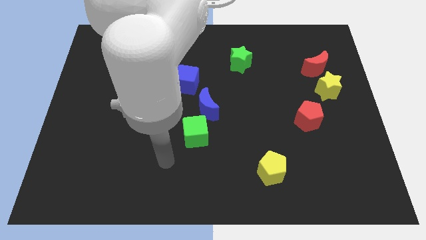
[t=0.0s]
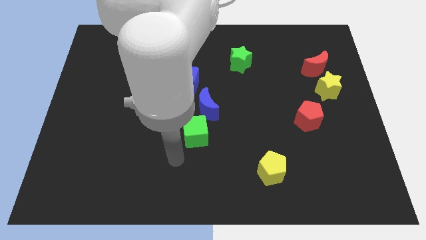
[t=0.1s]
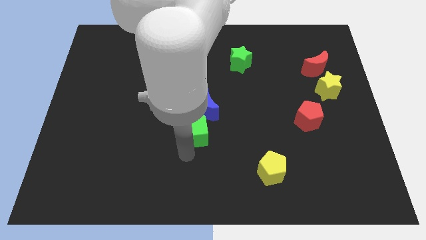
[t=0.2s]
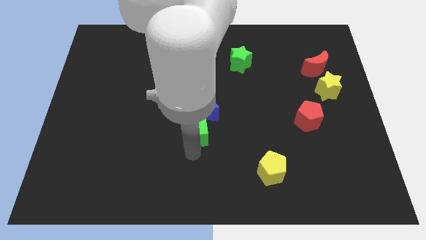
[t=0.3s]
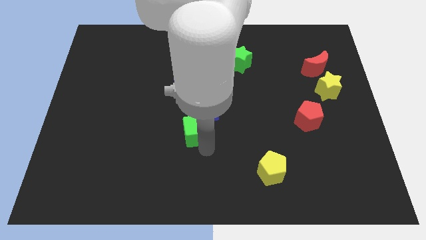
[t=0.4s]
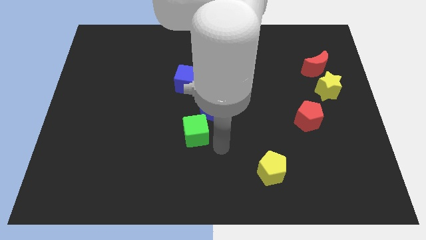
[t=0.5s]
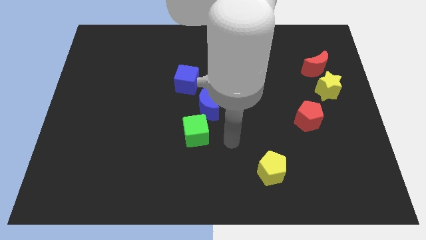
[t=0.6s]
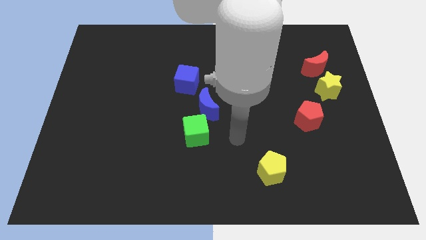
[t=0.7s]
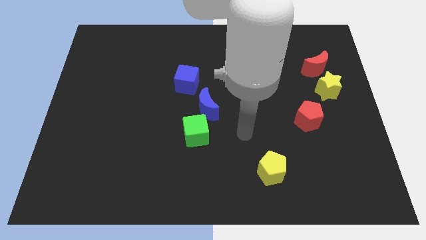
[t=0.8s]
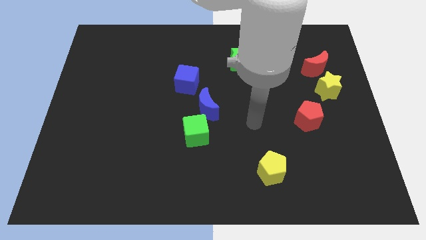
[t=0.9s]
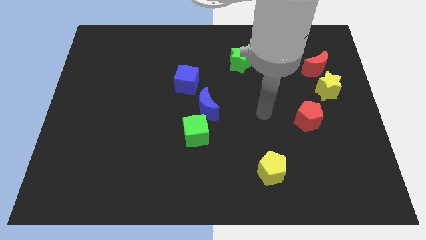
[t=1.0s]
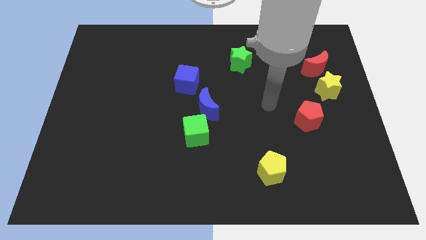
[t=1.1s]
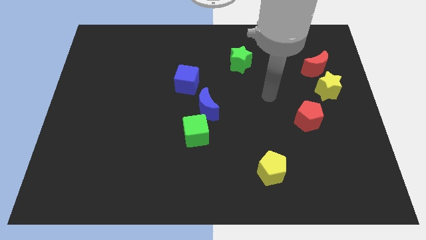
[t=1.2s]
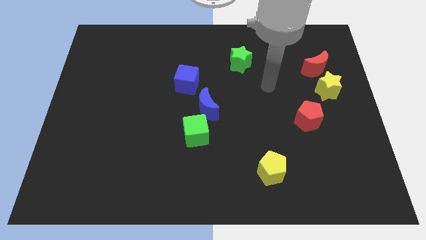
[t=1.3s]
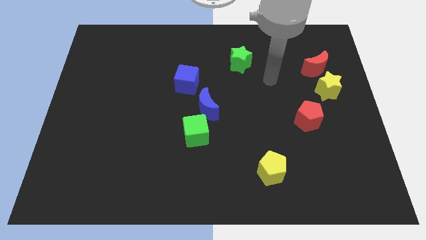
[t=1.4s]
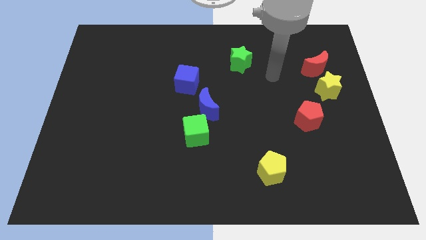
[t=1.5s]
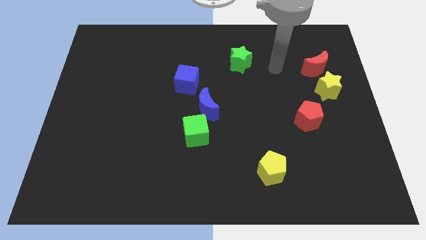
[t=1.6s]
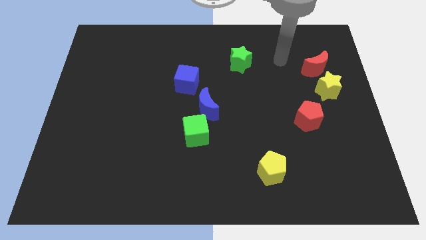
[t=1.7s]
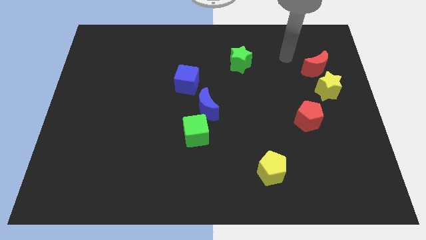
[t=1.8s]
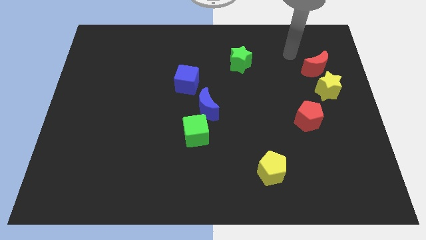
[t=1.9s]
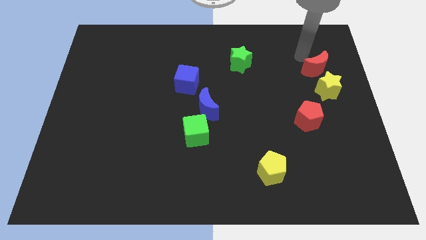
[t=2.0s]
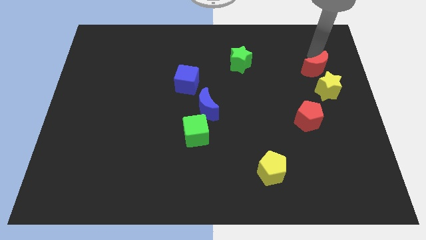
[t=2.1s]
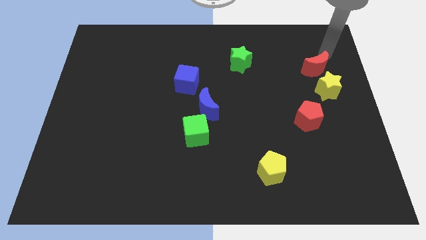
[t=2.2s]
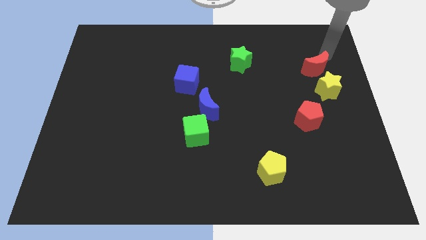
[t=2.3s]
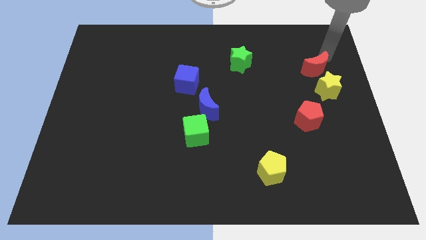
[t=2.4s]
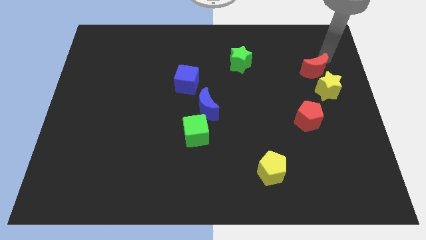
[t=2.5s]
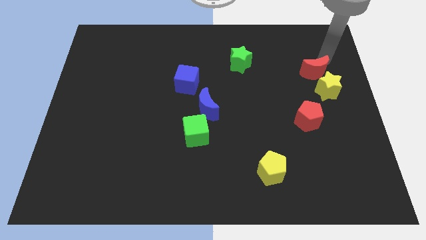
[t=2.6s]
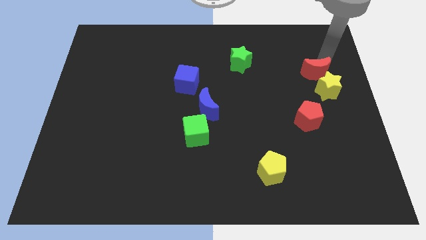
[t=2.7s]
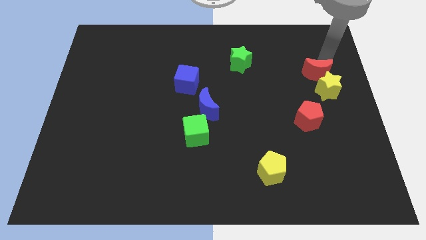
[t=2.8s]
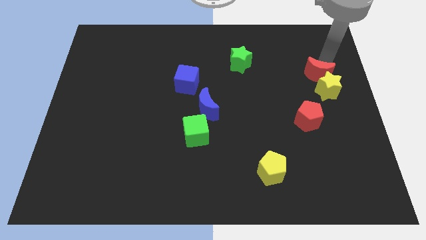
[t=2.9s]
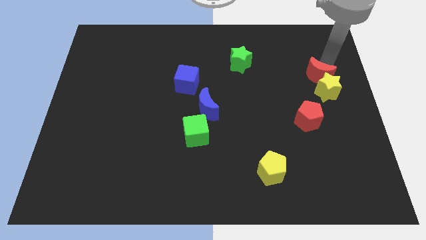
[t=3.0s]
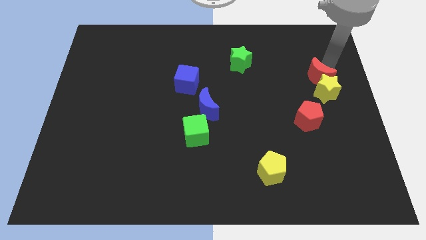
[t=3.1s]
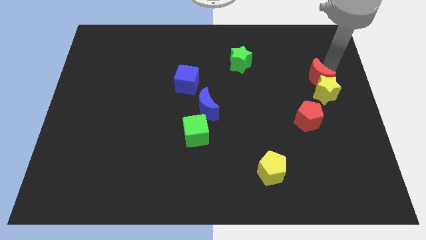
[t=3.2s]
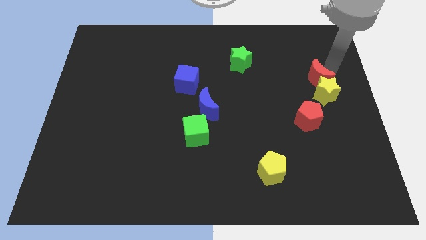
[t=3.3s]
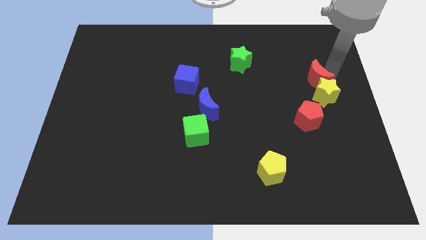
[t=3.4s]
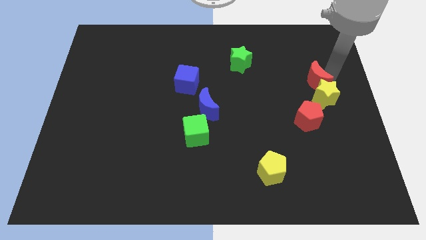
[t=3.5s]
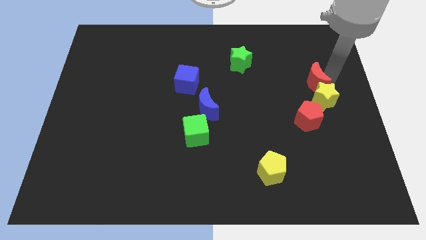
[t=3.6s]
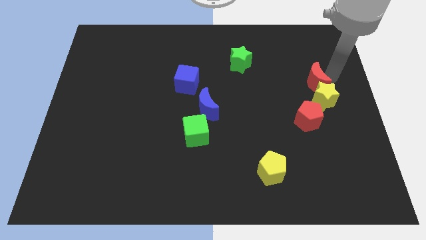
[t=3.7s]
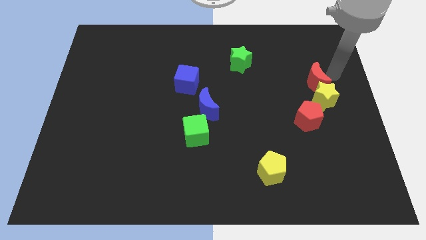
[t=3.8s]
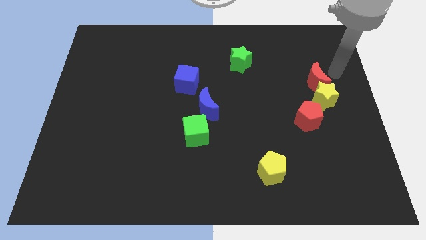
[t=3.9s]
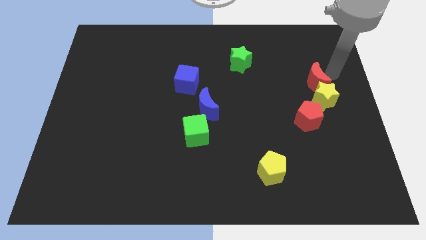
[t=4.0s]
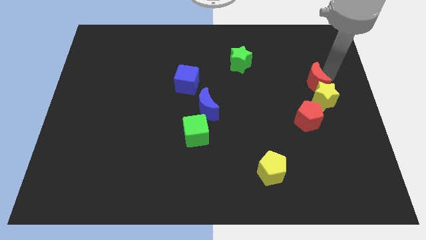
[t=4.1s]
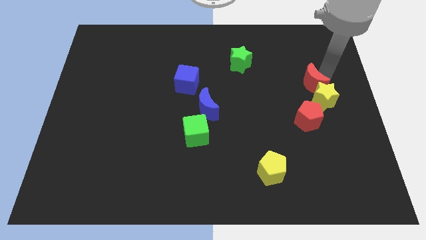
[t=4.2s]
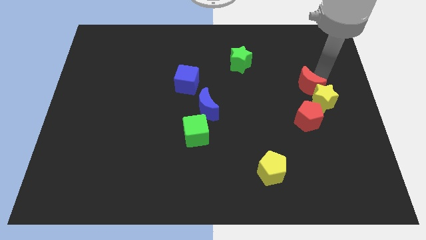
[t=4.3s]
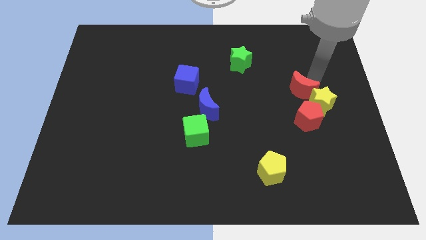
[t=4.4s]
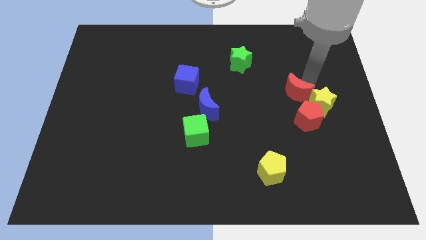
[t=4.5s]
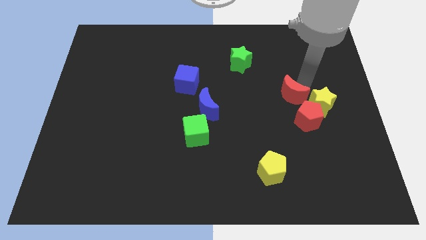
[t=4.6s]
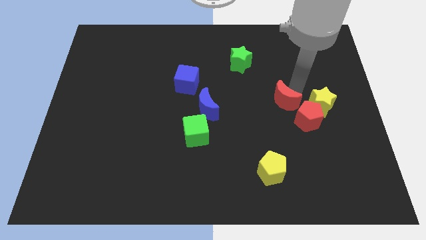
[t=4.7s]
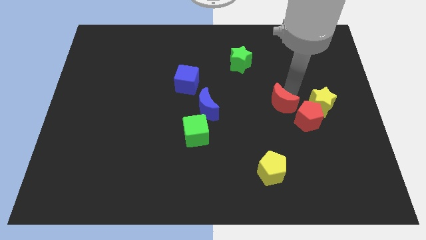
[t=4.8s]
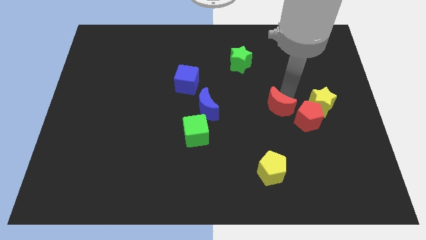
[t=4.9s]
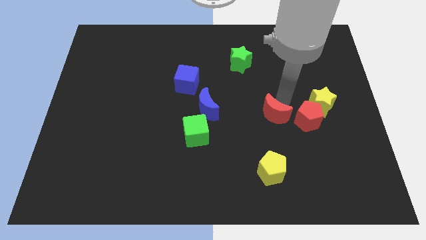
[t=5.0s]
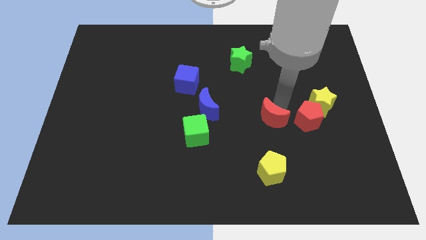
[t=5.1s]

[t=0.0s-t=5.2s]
slide the red moon down and left

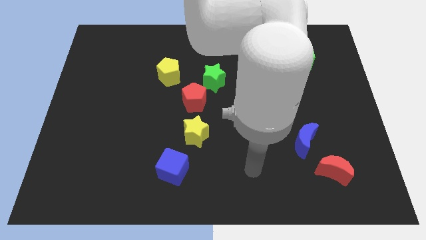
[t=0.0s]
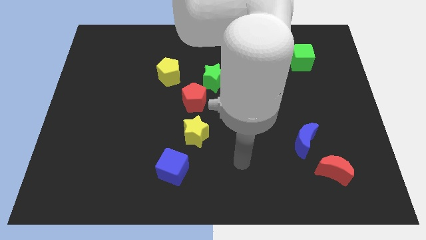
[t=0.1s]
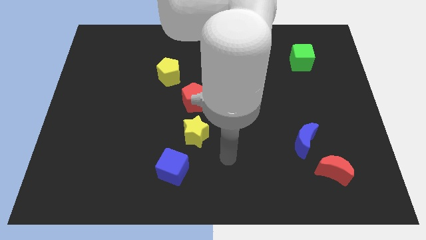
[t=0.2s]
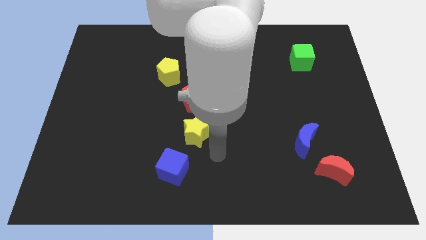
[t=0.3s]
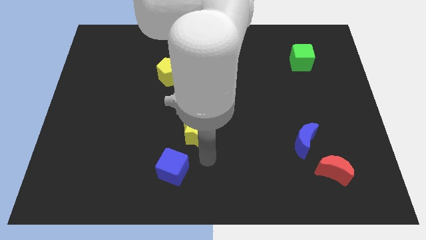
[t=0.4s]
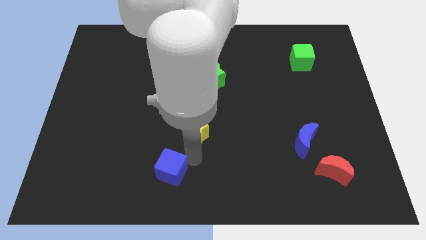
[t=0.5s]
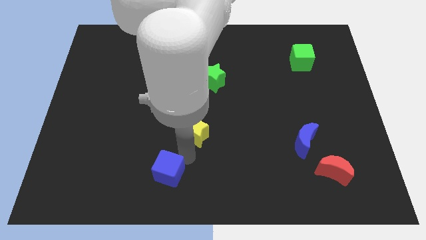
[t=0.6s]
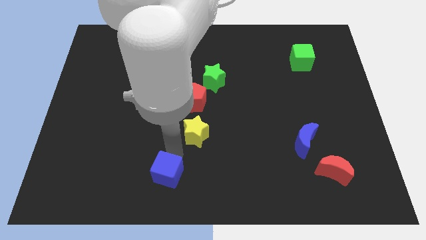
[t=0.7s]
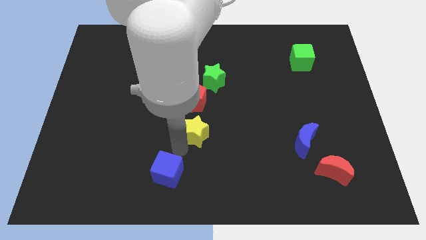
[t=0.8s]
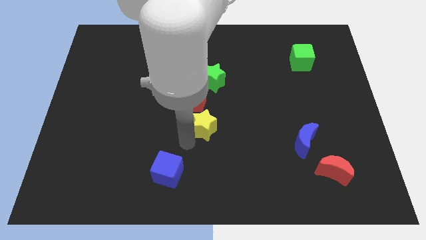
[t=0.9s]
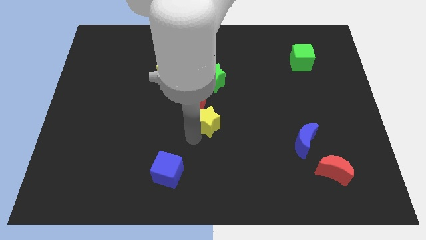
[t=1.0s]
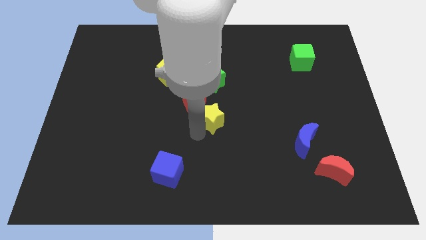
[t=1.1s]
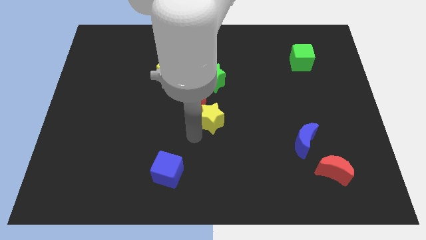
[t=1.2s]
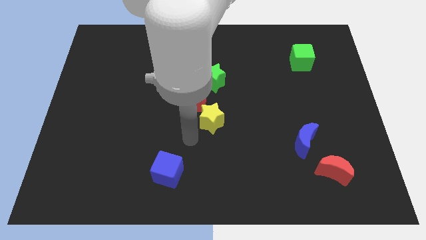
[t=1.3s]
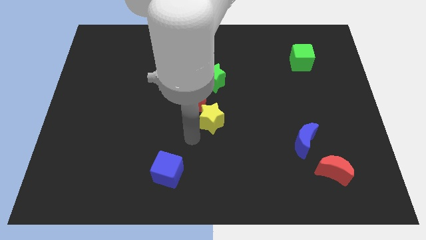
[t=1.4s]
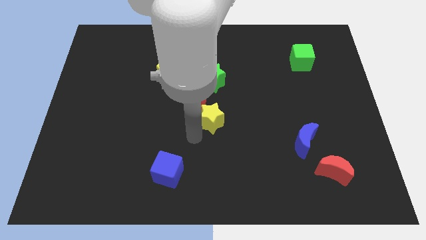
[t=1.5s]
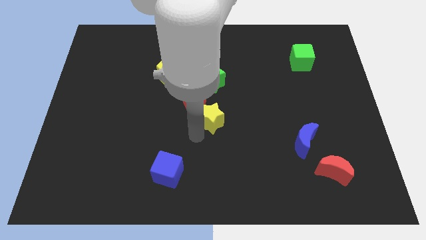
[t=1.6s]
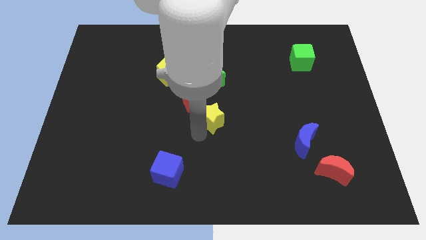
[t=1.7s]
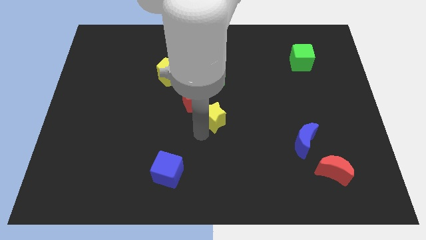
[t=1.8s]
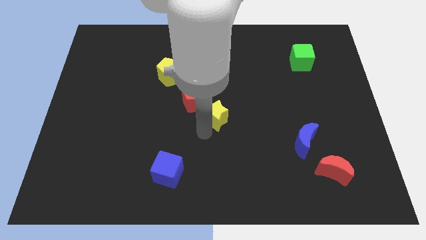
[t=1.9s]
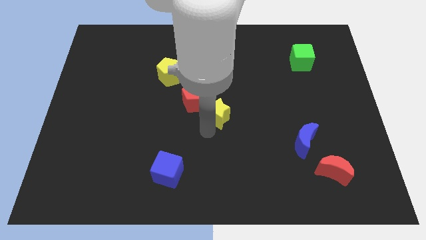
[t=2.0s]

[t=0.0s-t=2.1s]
slightly move the yellow star upwards and then to the right

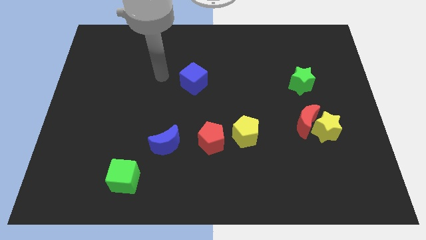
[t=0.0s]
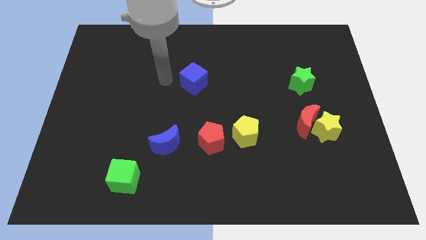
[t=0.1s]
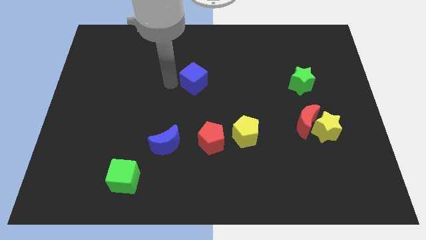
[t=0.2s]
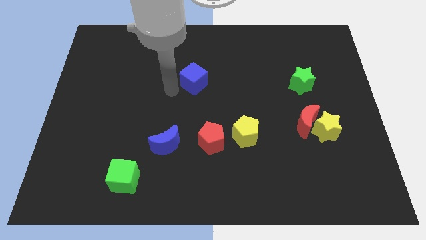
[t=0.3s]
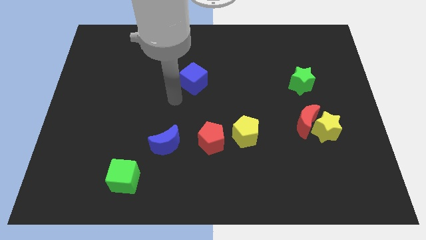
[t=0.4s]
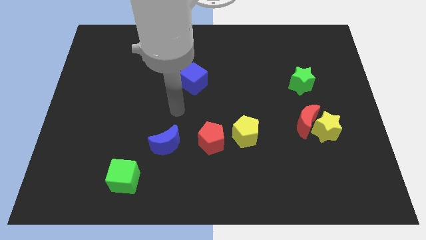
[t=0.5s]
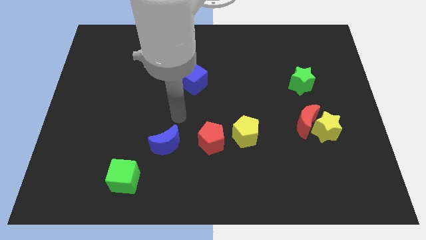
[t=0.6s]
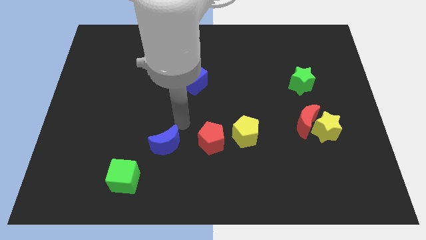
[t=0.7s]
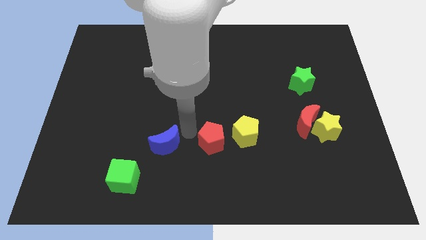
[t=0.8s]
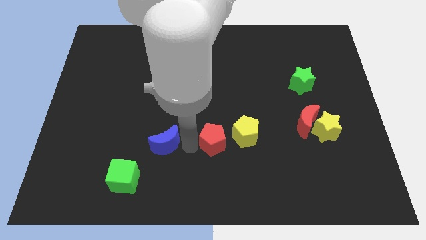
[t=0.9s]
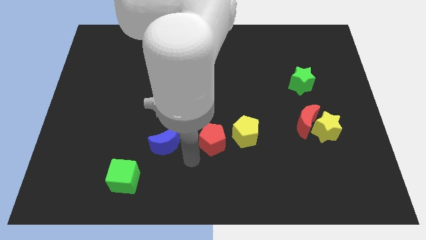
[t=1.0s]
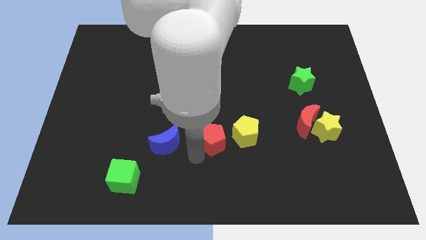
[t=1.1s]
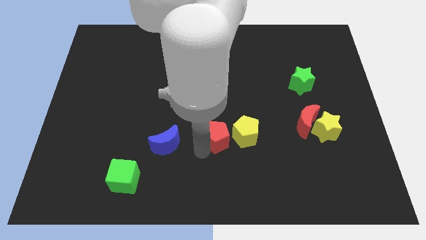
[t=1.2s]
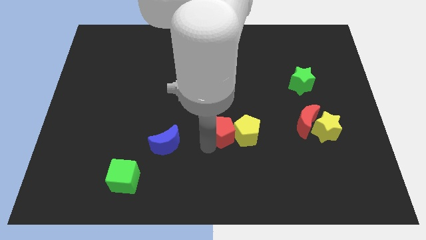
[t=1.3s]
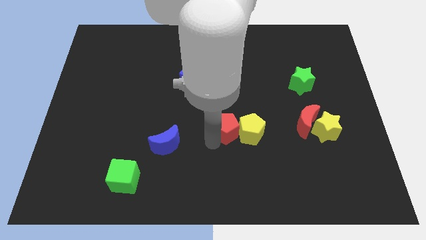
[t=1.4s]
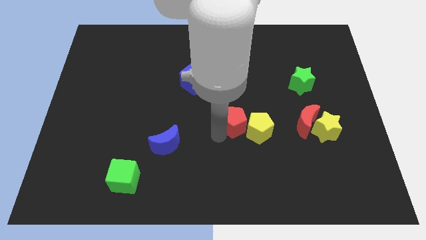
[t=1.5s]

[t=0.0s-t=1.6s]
slightly push the red pentagon diagonally up and right
